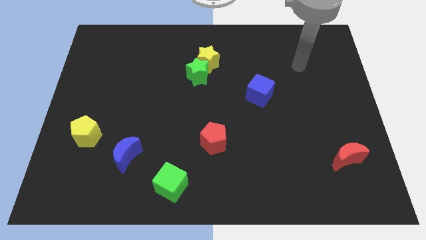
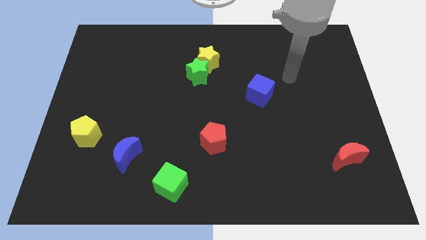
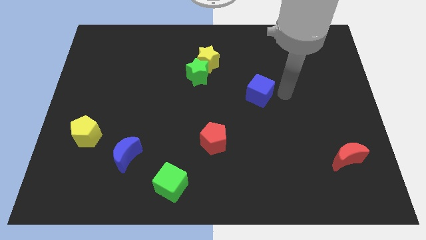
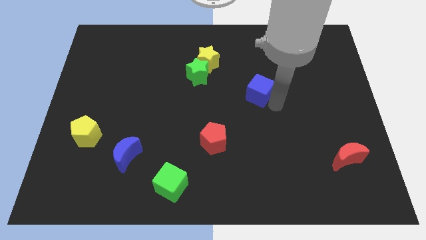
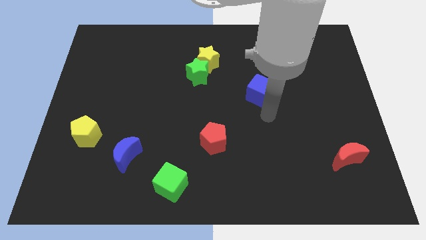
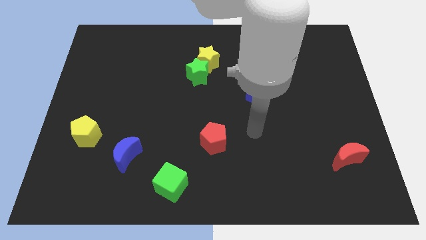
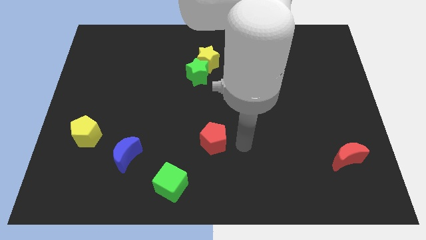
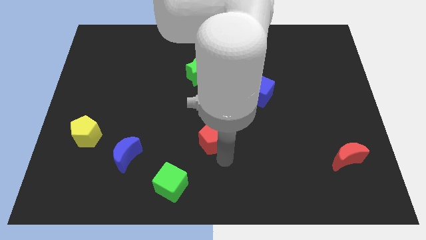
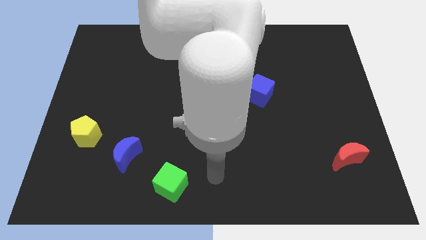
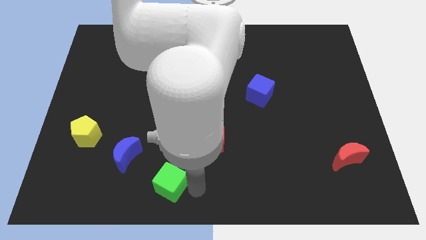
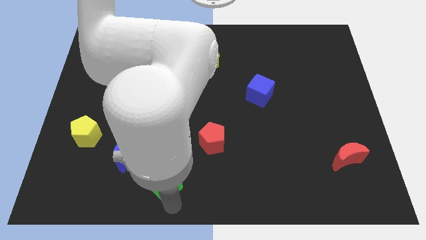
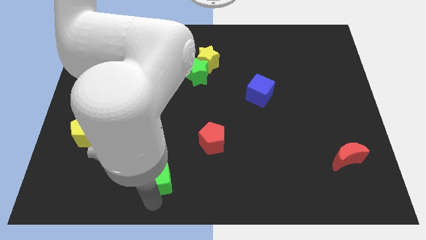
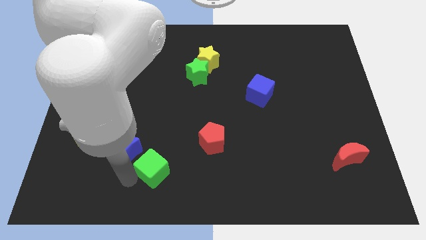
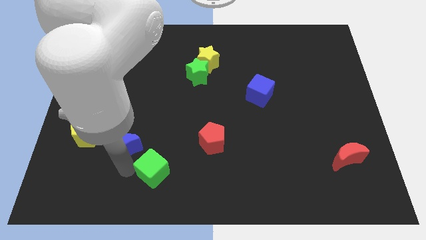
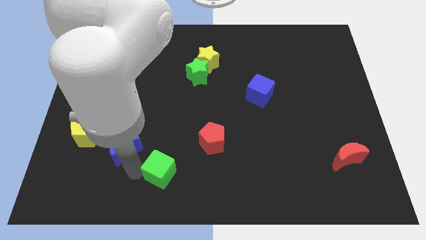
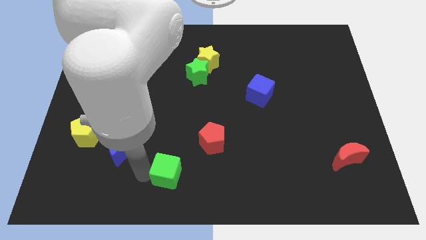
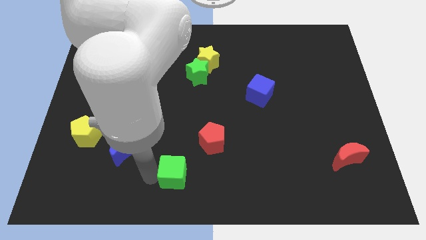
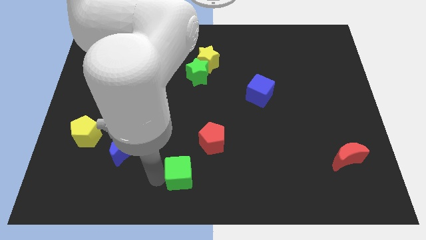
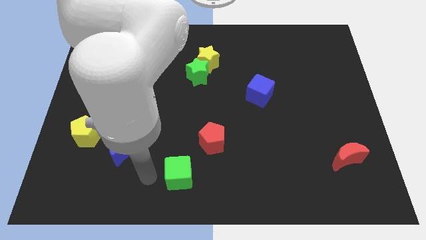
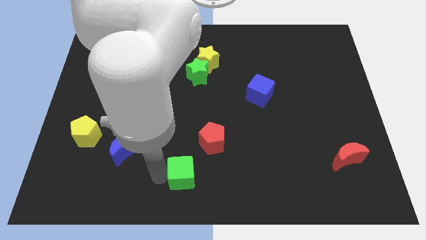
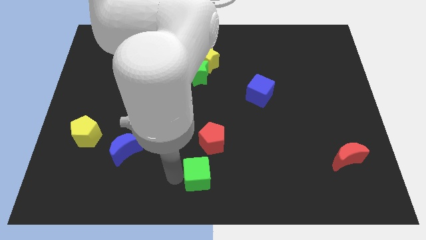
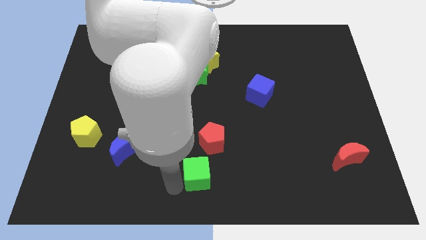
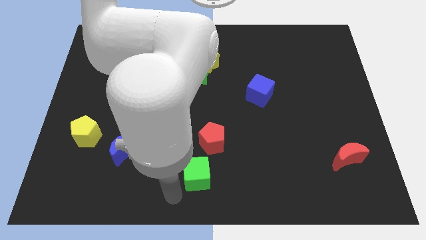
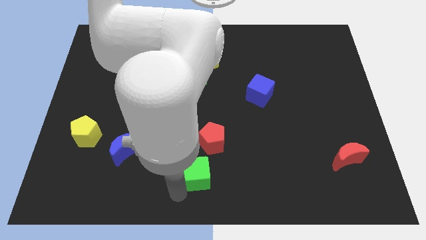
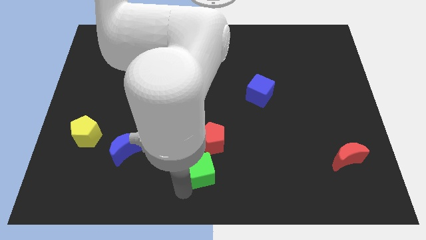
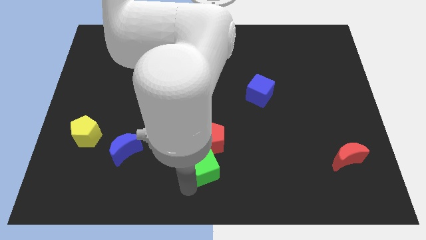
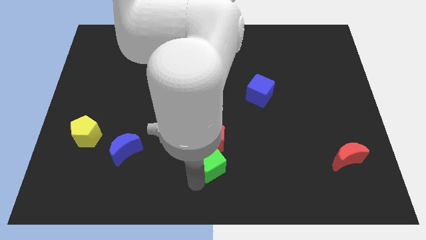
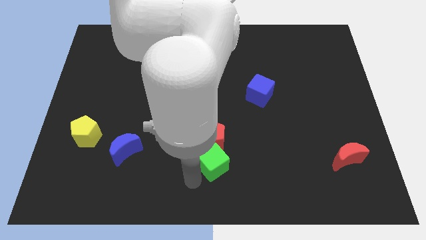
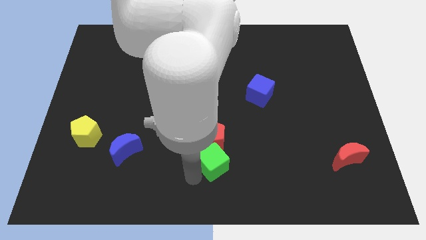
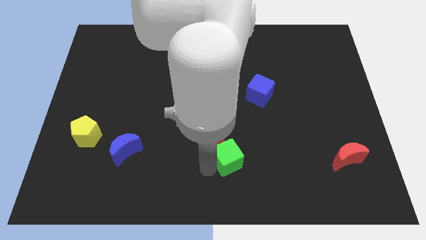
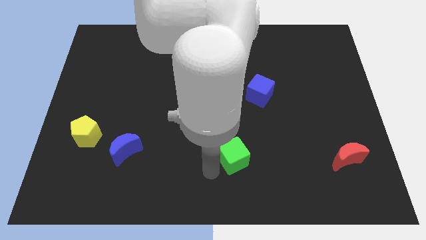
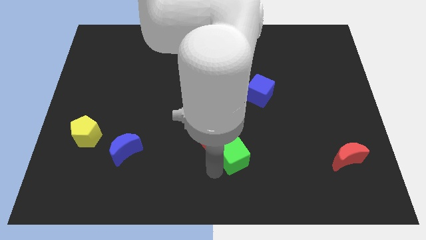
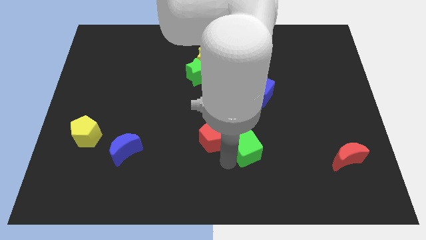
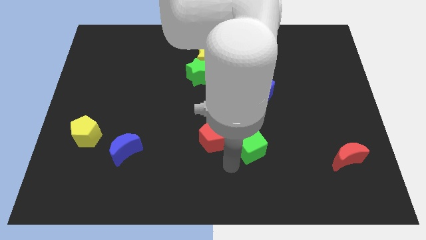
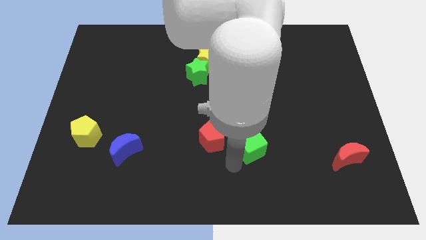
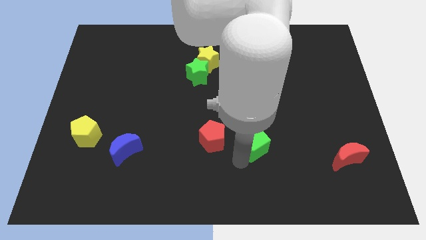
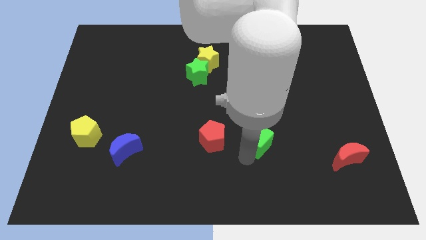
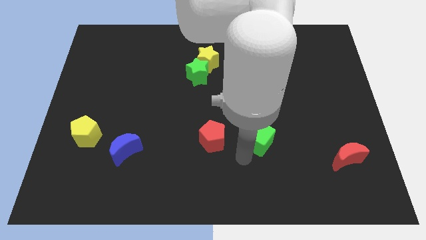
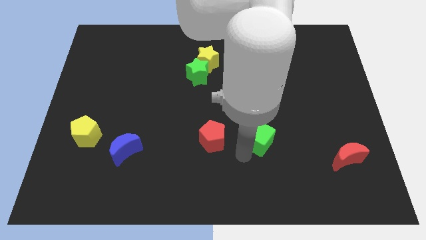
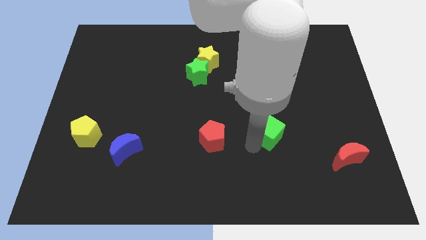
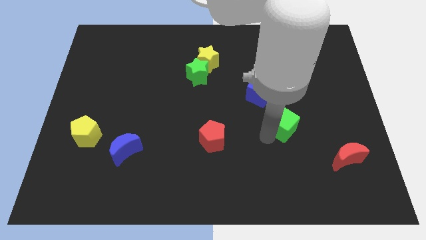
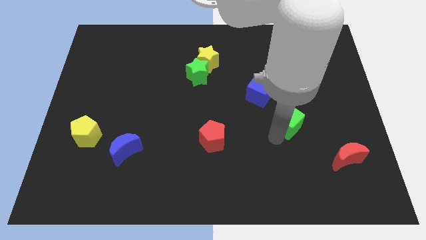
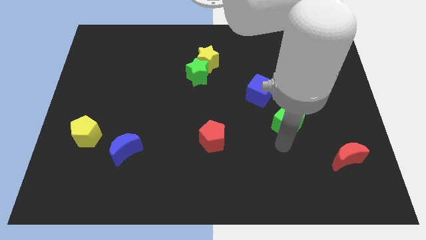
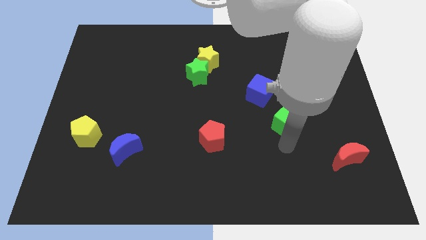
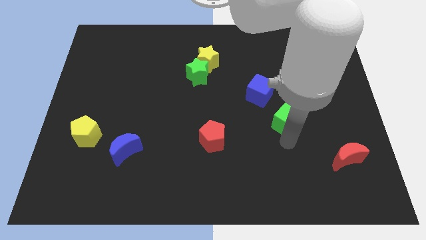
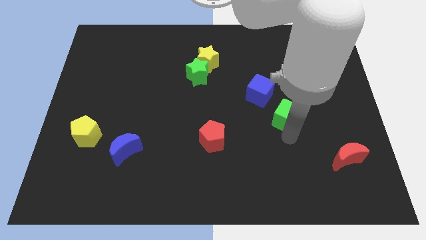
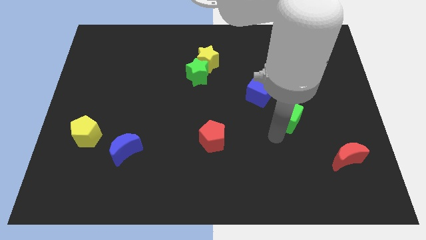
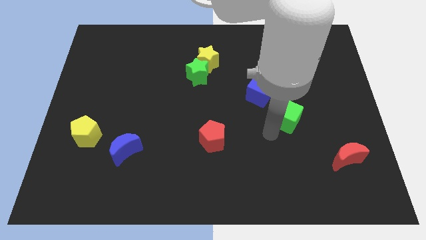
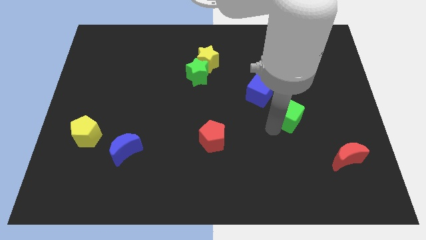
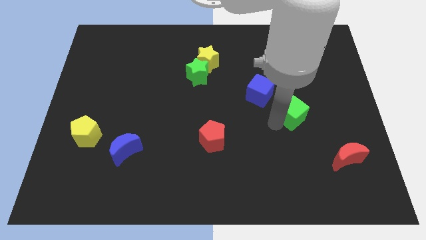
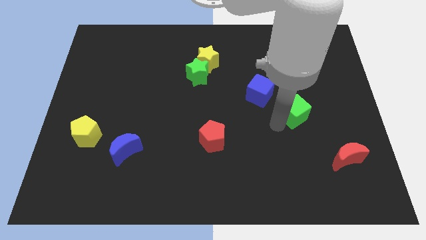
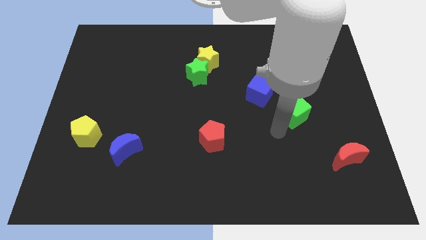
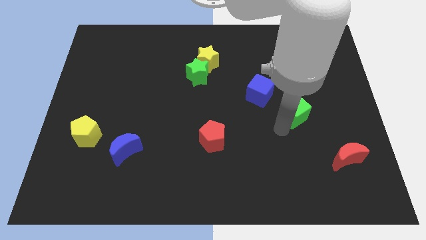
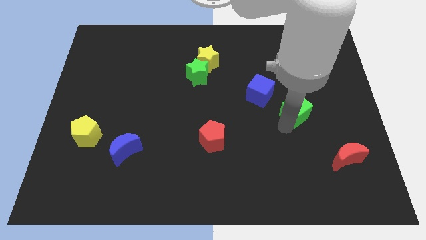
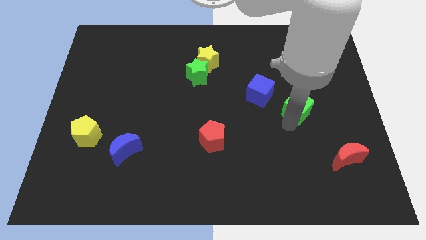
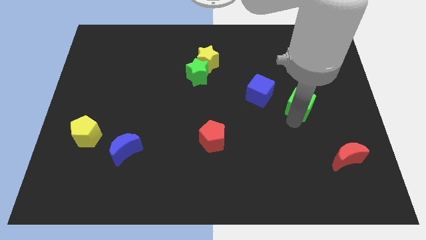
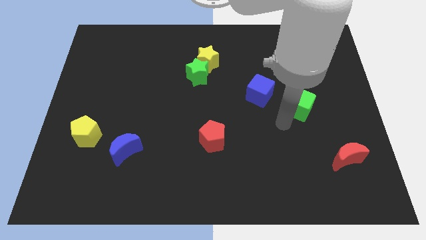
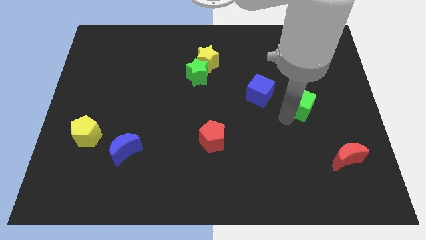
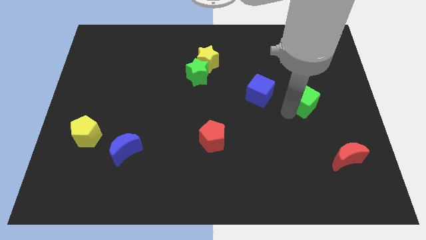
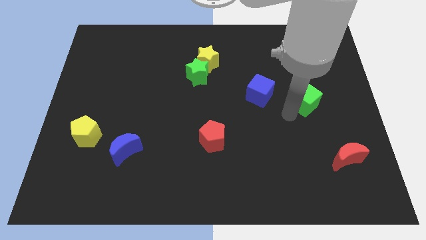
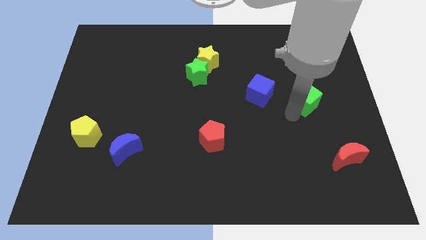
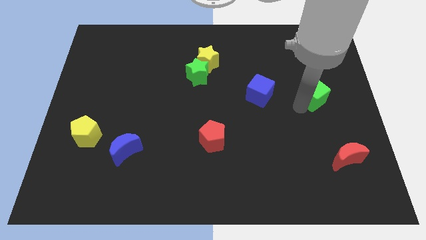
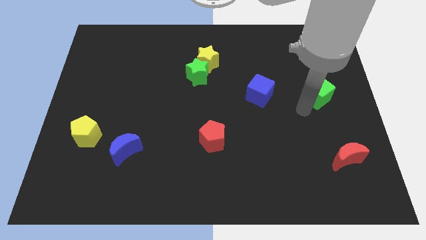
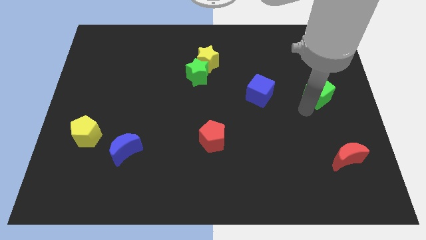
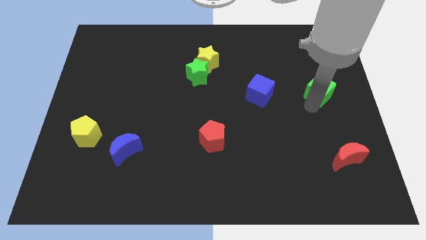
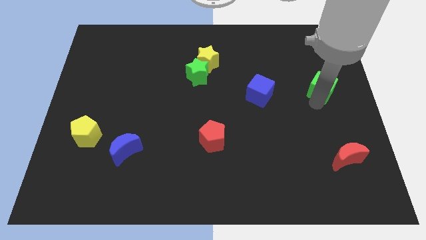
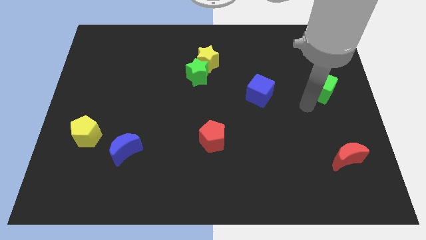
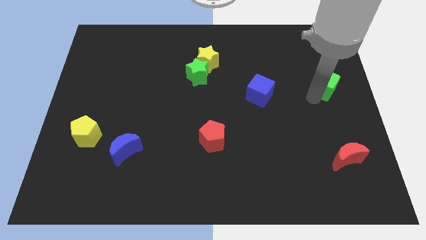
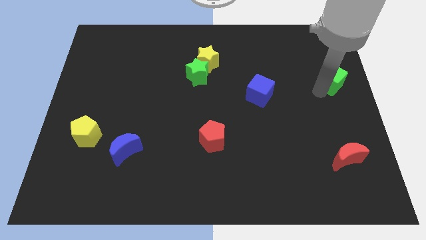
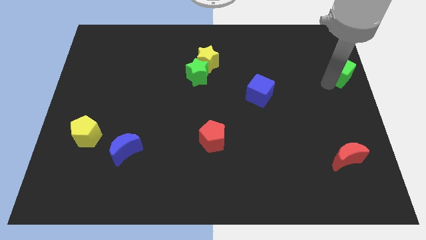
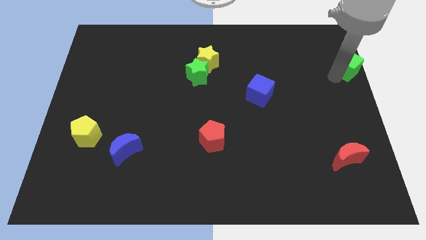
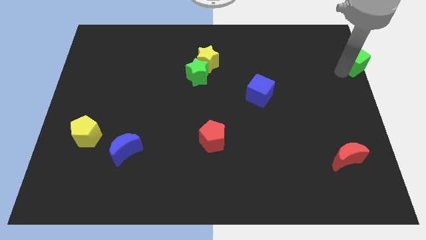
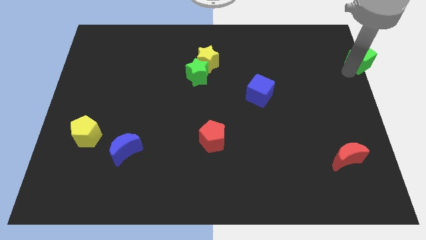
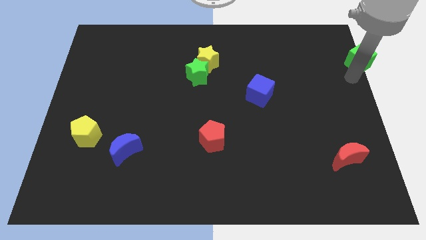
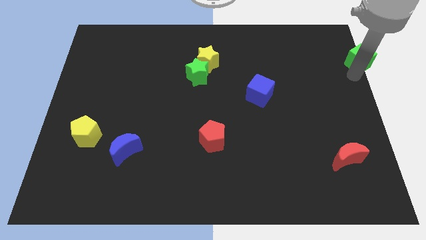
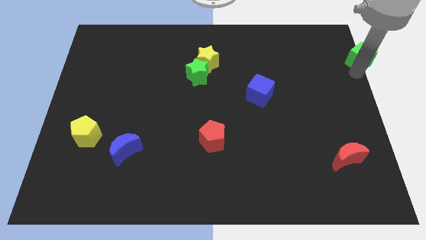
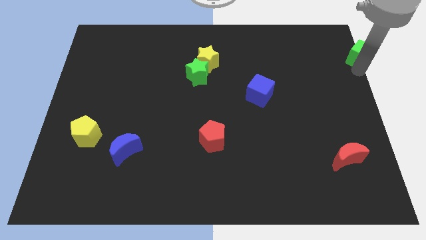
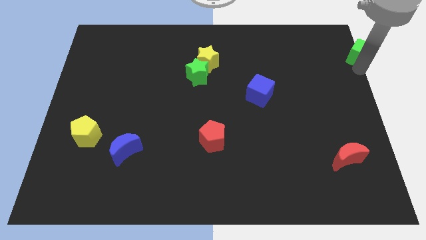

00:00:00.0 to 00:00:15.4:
slide the green cube to the upper right corner

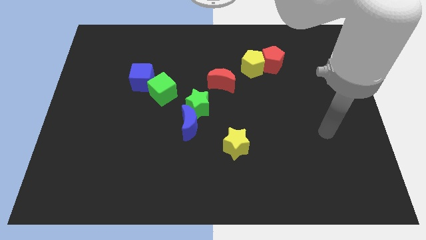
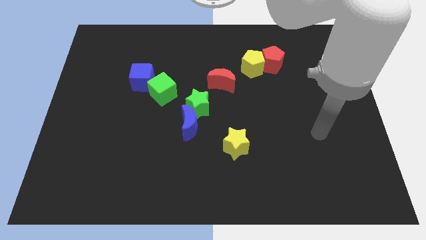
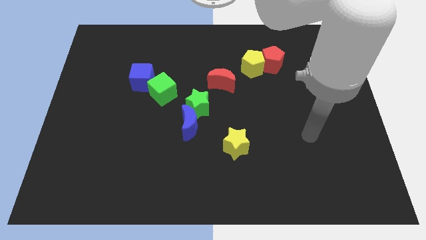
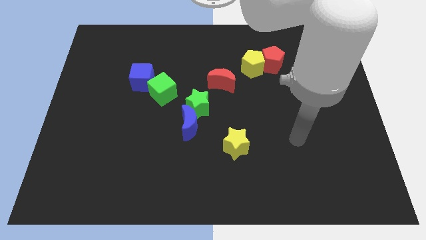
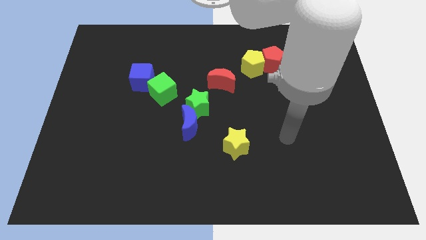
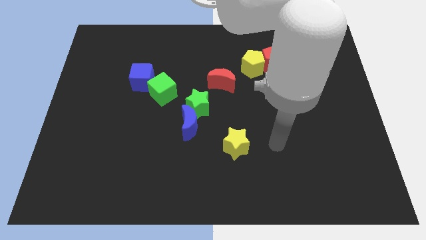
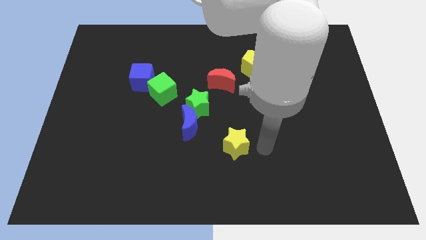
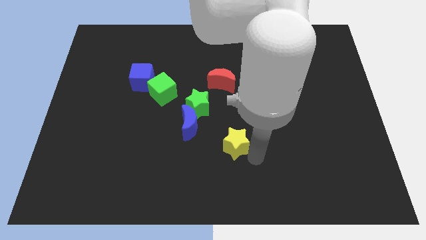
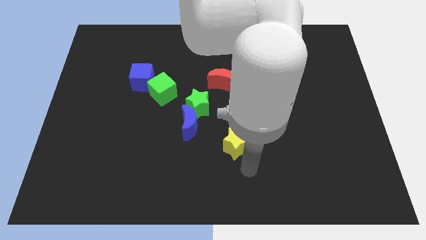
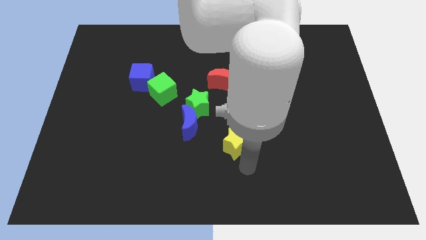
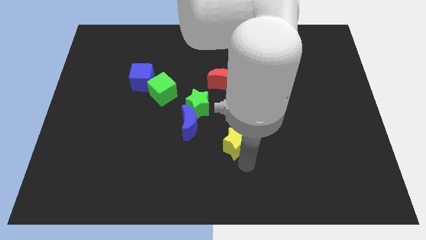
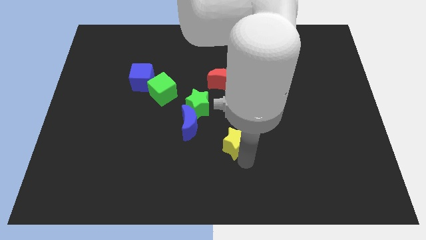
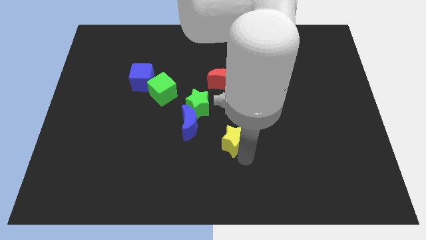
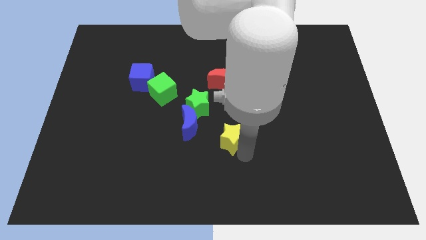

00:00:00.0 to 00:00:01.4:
move the yellow star to the middle
